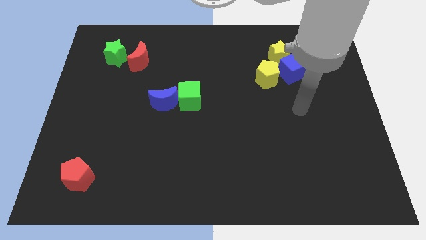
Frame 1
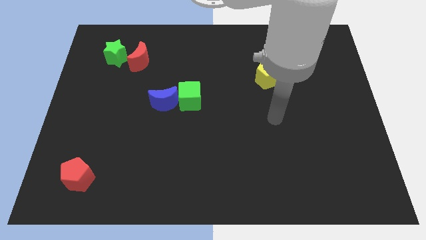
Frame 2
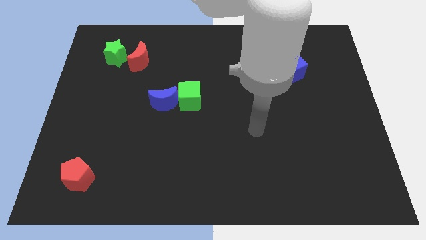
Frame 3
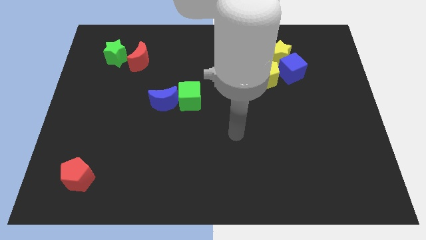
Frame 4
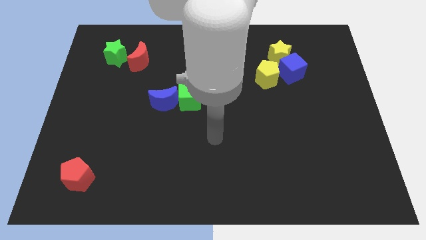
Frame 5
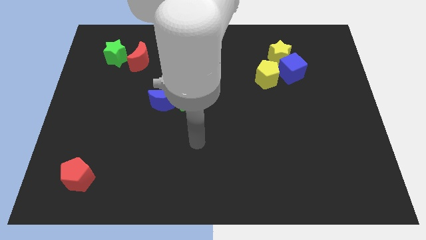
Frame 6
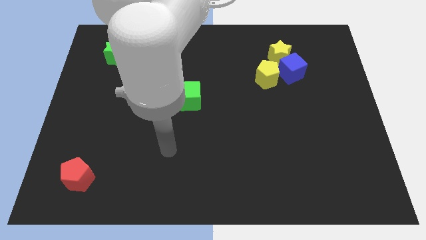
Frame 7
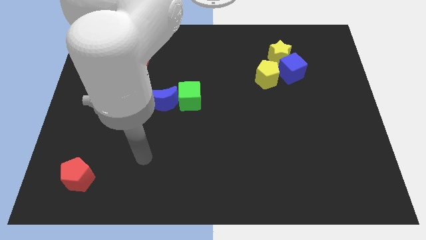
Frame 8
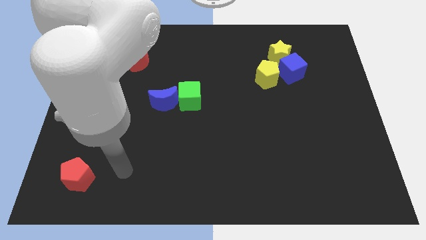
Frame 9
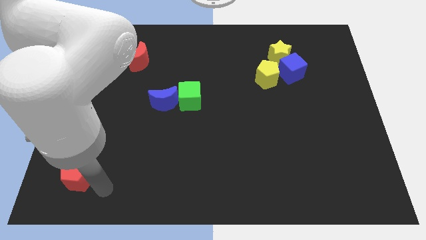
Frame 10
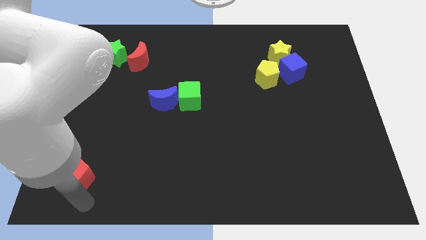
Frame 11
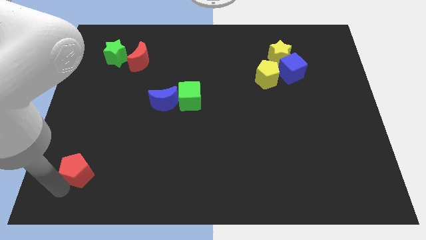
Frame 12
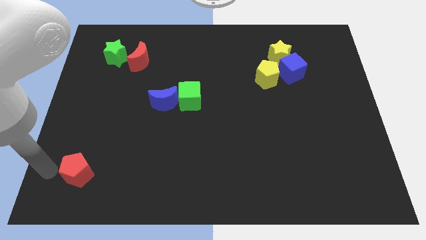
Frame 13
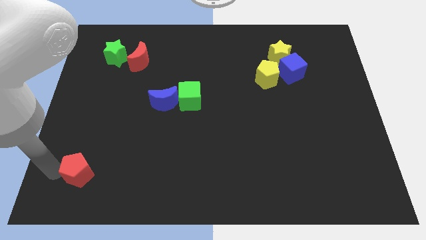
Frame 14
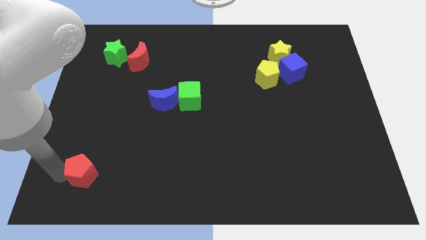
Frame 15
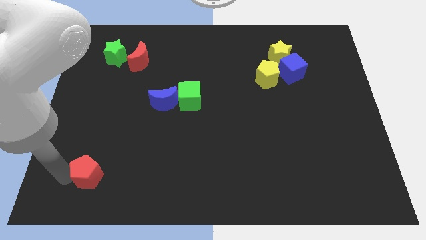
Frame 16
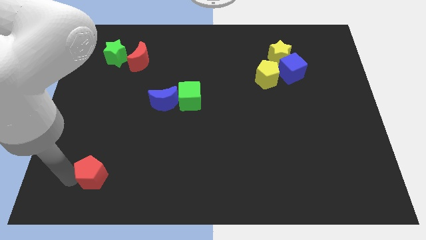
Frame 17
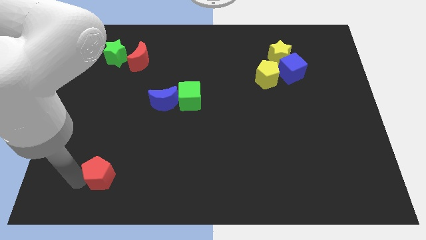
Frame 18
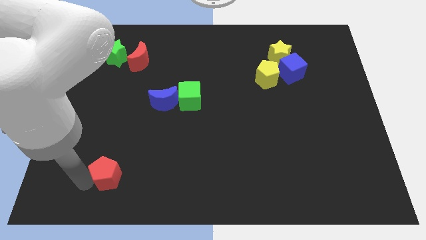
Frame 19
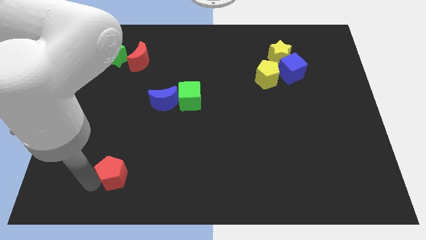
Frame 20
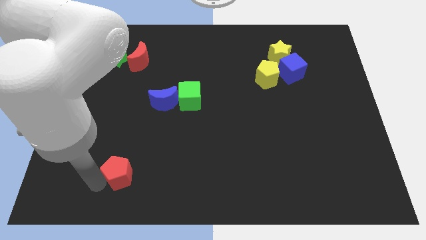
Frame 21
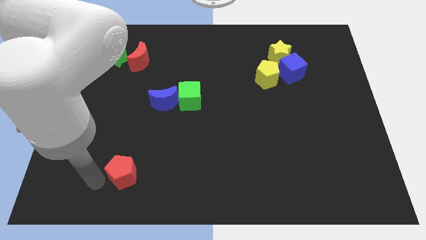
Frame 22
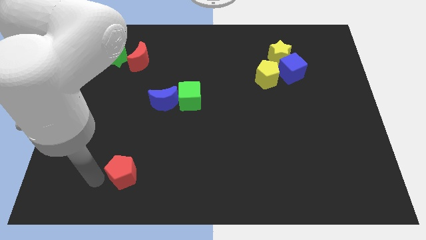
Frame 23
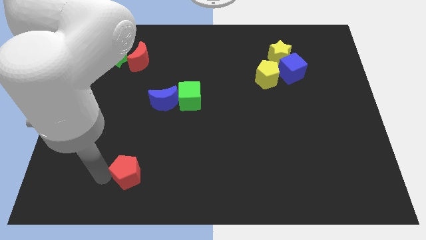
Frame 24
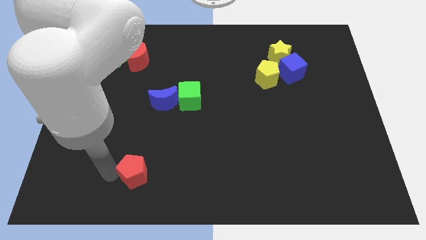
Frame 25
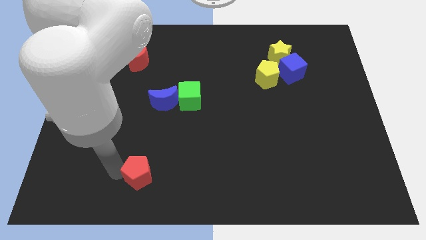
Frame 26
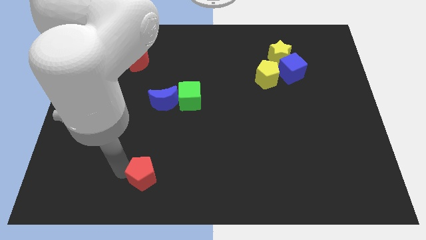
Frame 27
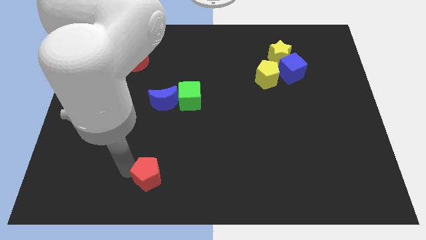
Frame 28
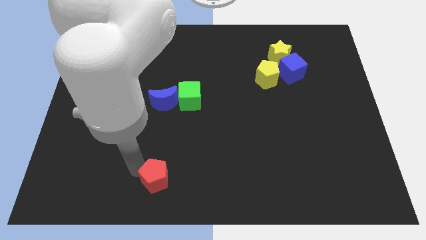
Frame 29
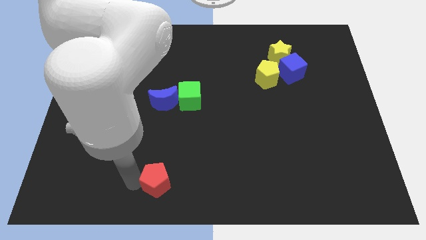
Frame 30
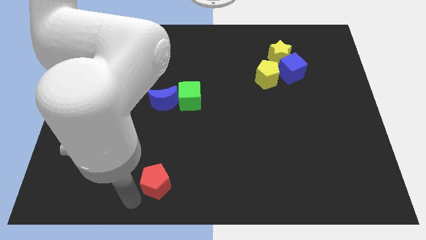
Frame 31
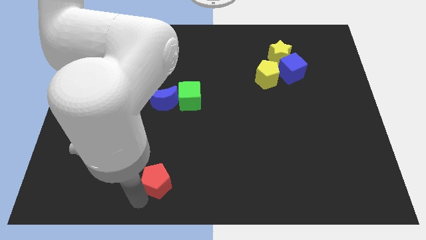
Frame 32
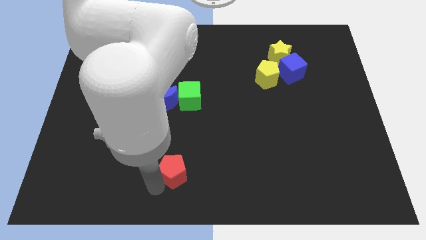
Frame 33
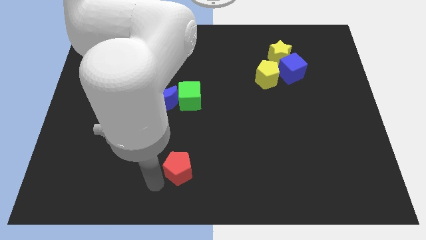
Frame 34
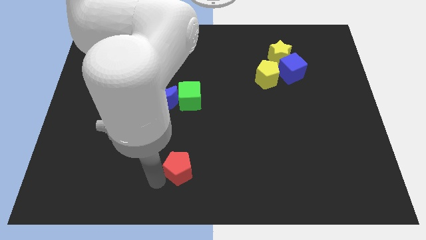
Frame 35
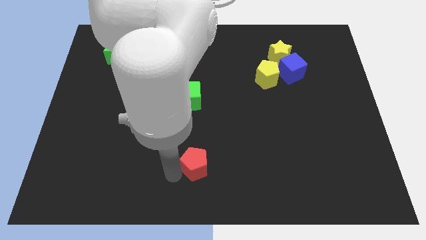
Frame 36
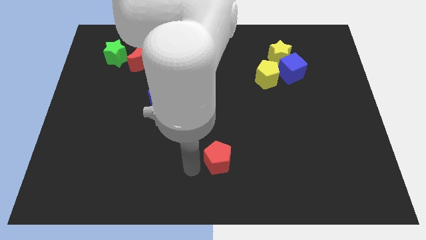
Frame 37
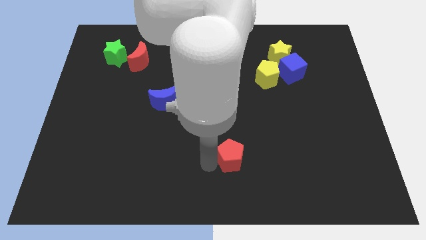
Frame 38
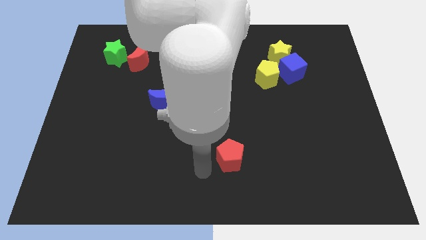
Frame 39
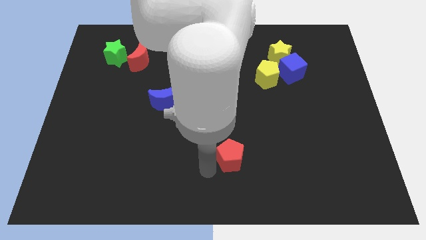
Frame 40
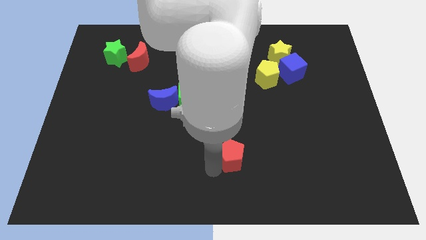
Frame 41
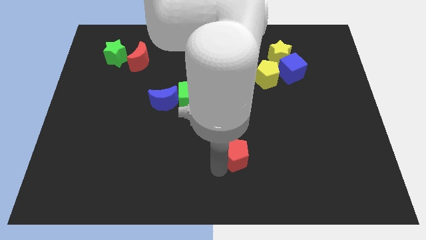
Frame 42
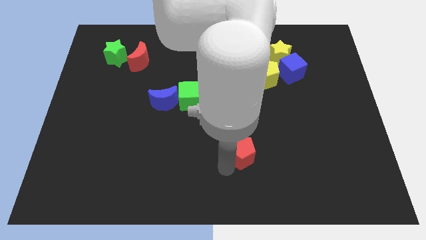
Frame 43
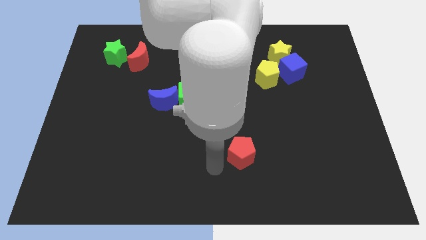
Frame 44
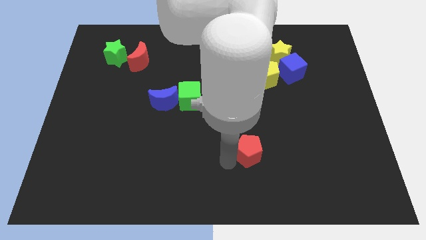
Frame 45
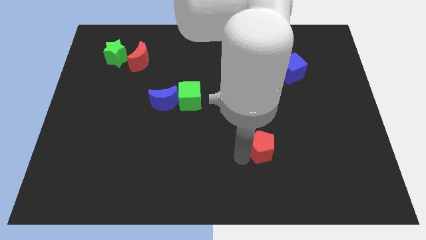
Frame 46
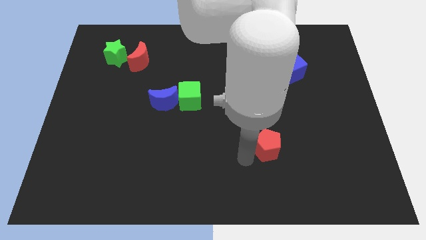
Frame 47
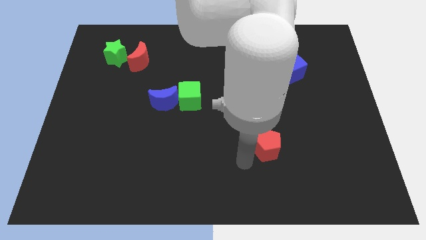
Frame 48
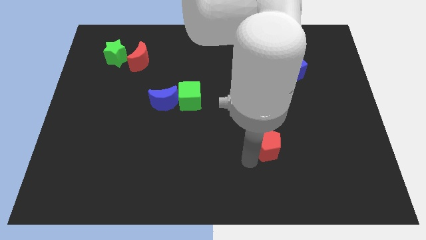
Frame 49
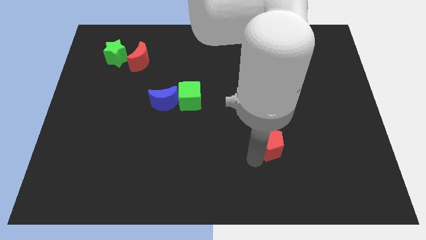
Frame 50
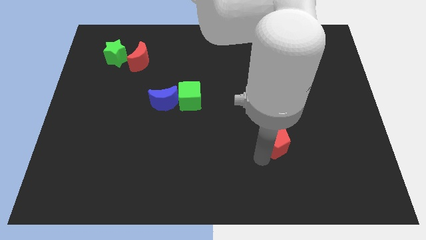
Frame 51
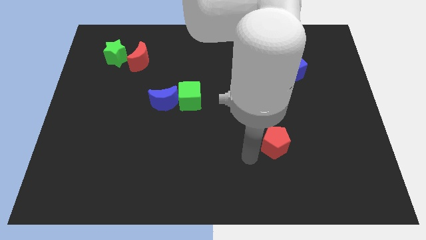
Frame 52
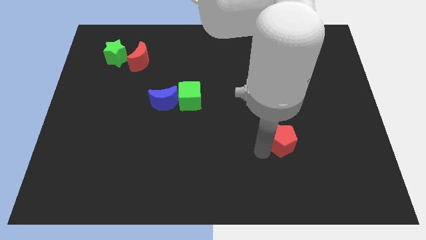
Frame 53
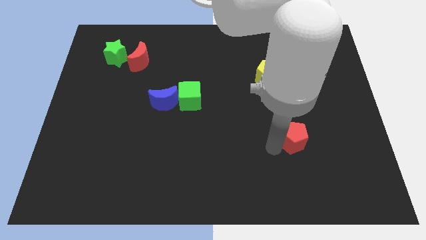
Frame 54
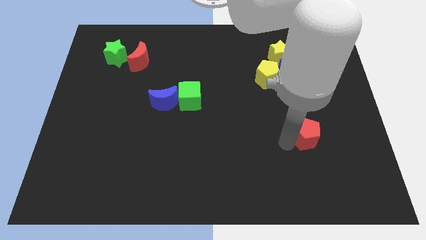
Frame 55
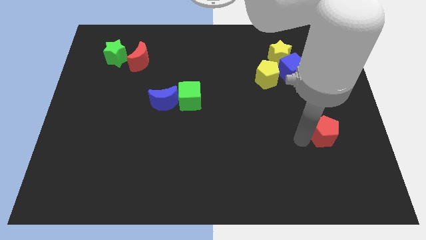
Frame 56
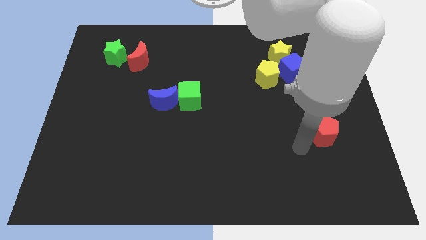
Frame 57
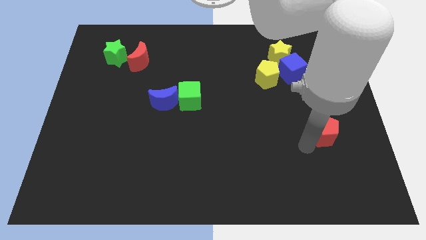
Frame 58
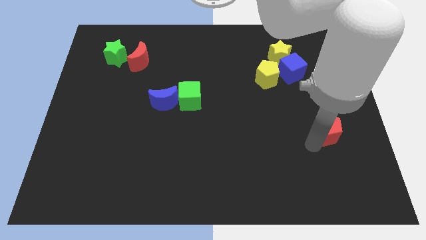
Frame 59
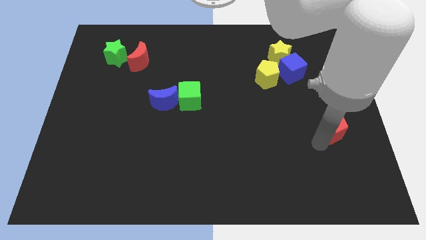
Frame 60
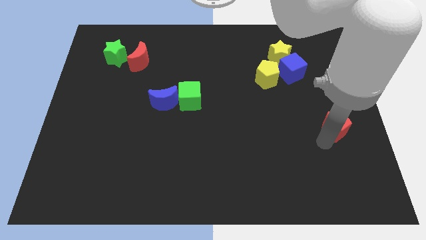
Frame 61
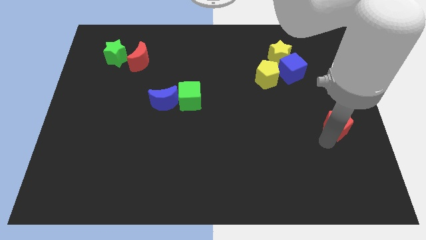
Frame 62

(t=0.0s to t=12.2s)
push the red pentagon to the right side of the board
